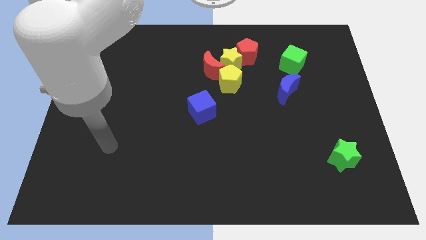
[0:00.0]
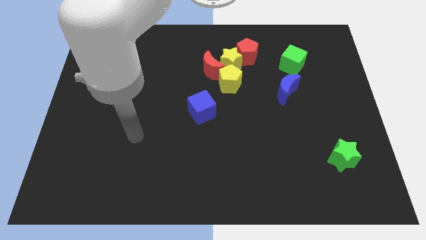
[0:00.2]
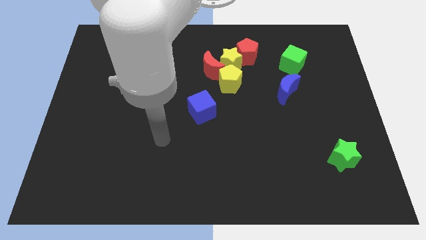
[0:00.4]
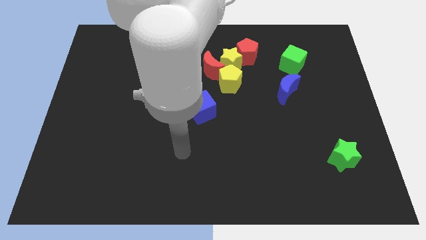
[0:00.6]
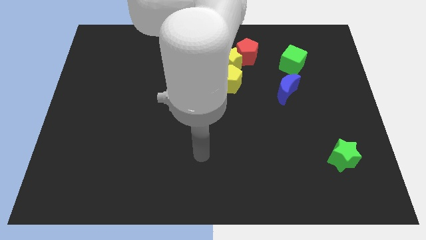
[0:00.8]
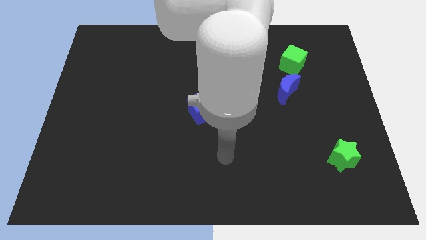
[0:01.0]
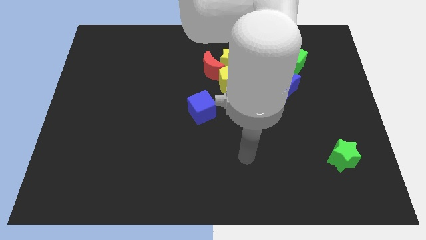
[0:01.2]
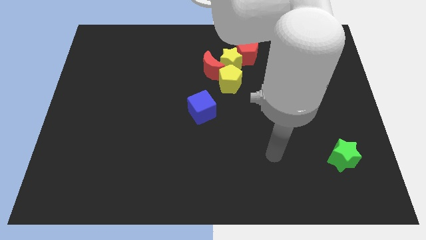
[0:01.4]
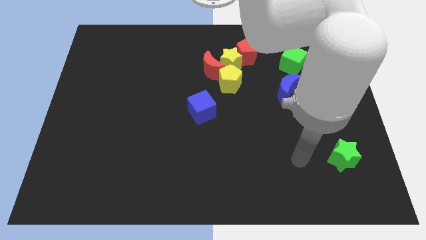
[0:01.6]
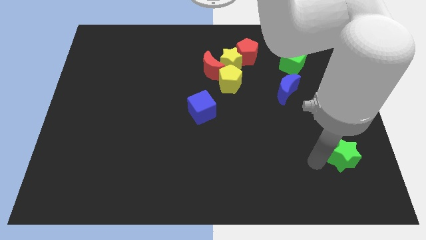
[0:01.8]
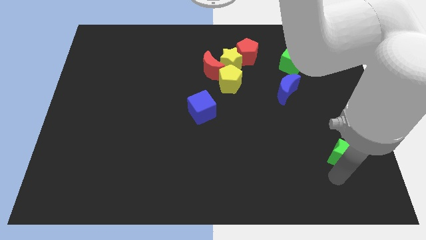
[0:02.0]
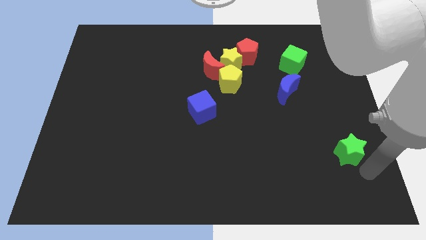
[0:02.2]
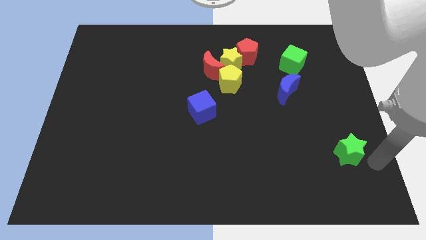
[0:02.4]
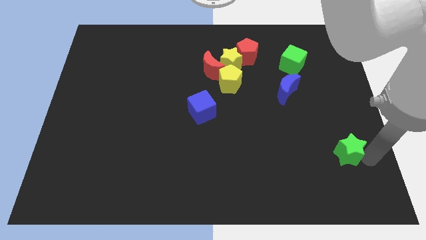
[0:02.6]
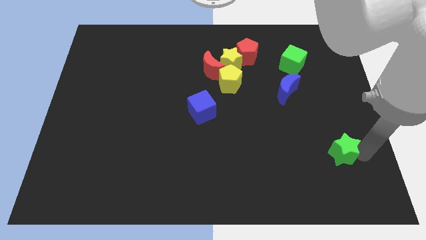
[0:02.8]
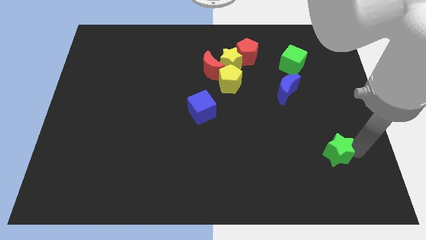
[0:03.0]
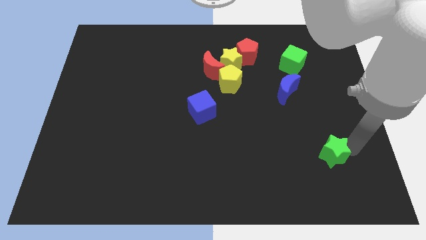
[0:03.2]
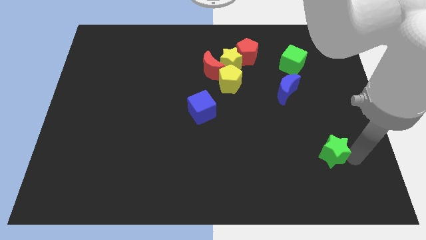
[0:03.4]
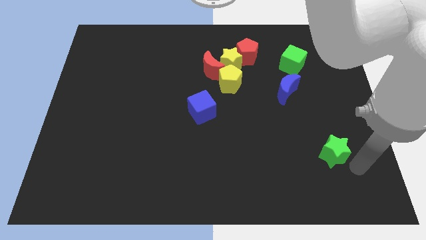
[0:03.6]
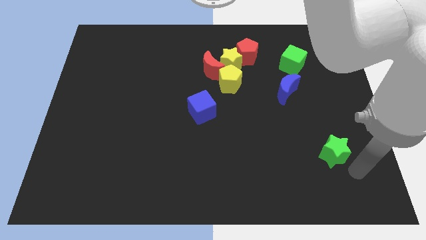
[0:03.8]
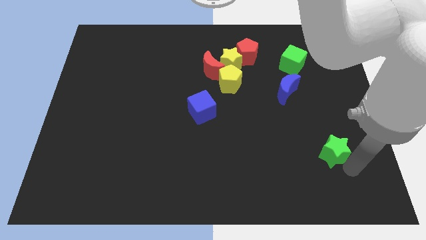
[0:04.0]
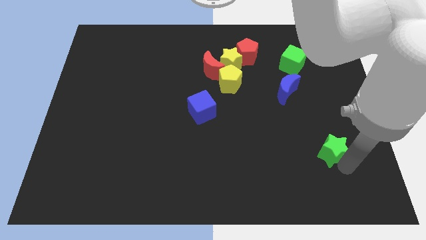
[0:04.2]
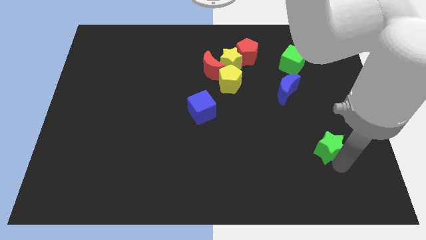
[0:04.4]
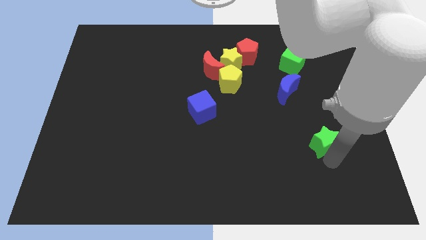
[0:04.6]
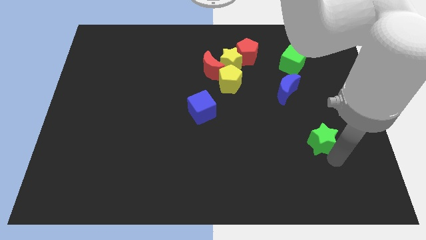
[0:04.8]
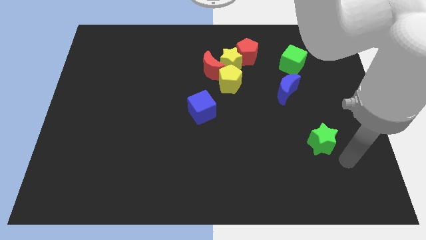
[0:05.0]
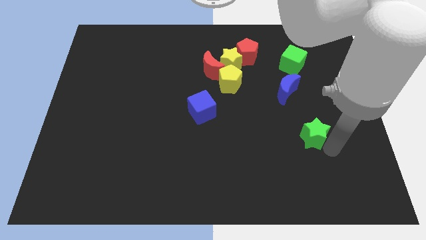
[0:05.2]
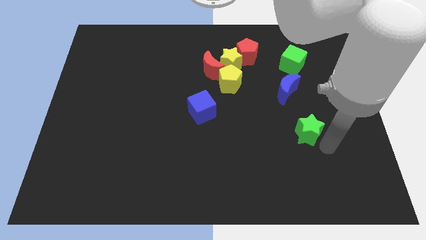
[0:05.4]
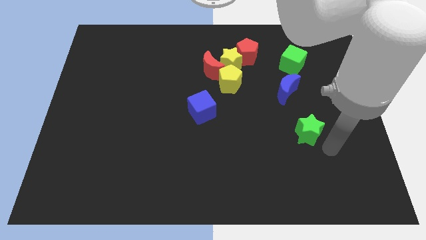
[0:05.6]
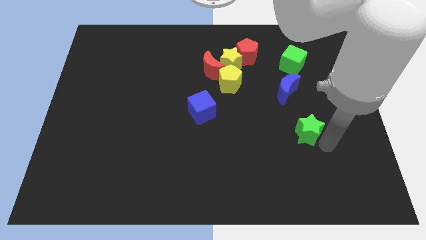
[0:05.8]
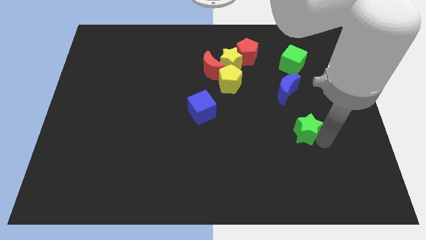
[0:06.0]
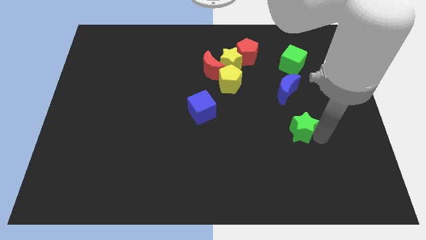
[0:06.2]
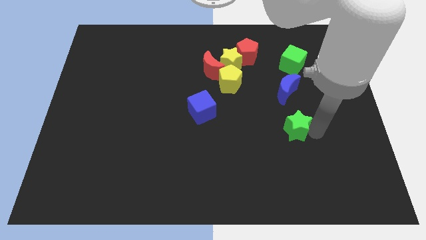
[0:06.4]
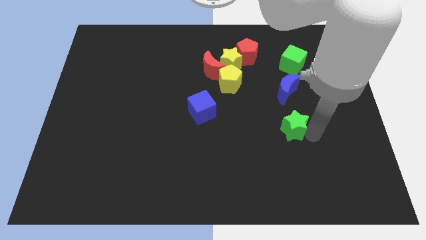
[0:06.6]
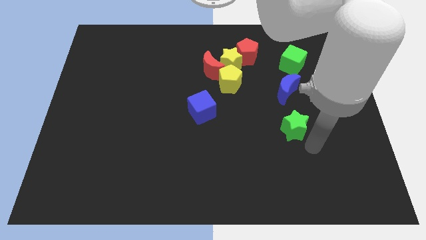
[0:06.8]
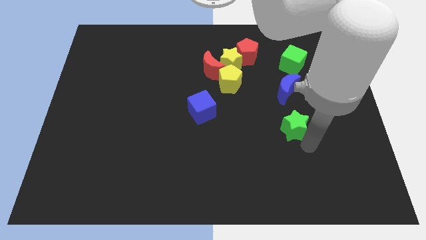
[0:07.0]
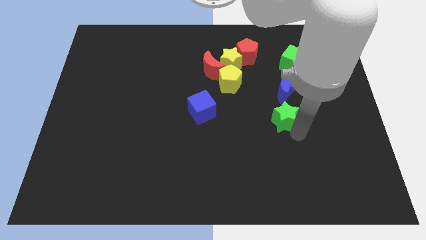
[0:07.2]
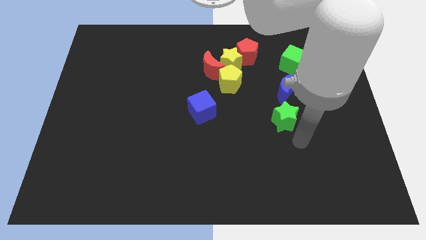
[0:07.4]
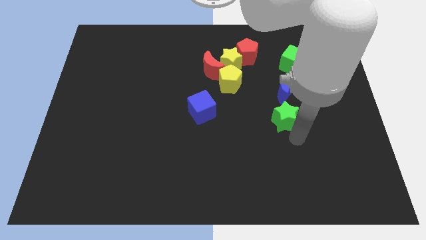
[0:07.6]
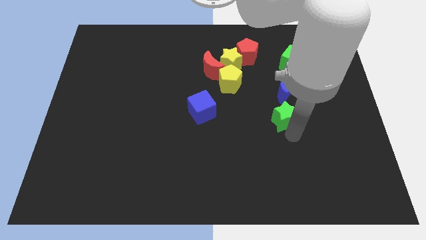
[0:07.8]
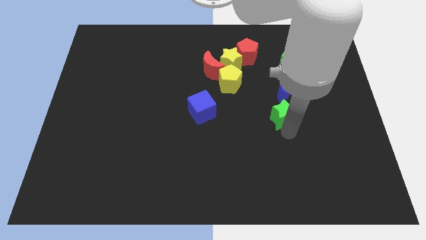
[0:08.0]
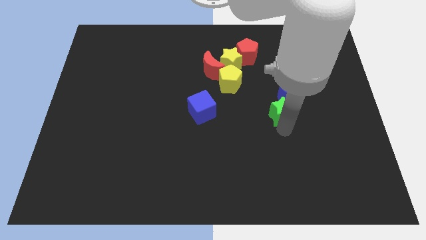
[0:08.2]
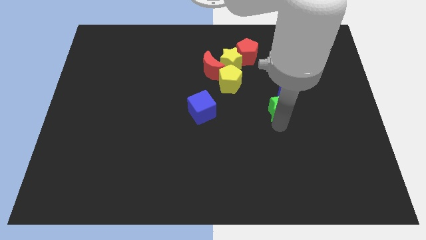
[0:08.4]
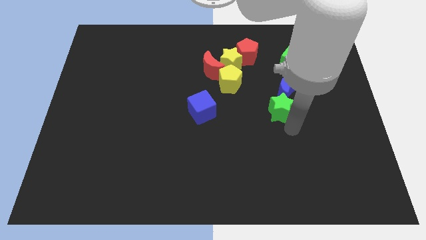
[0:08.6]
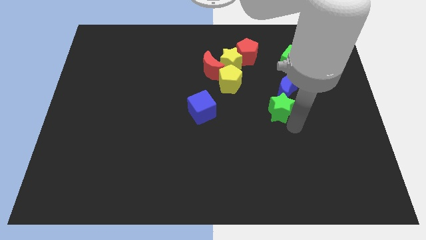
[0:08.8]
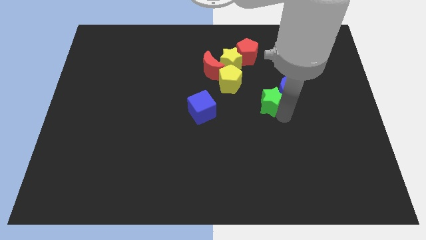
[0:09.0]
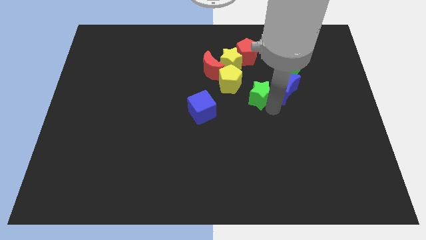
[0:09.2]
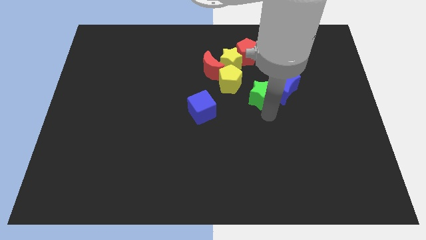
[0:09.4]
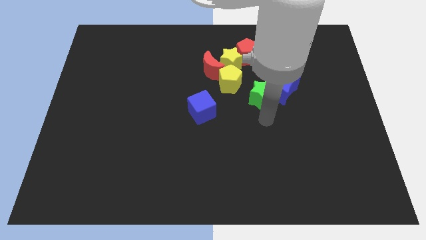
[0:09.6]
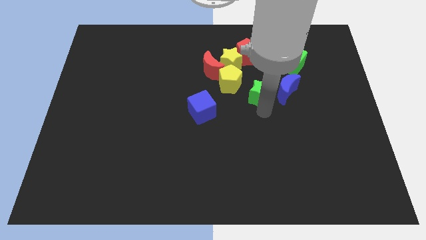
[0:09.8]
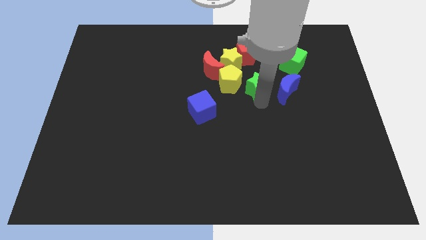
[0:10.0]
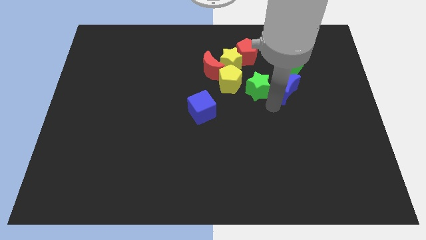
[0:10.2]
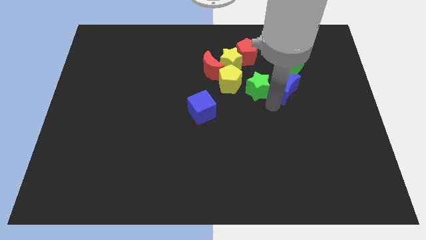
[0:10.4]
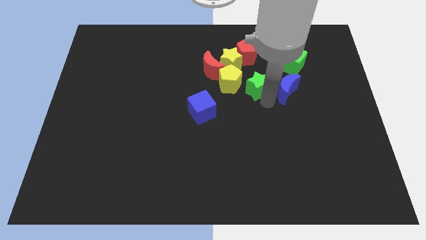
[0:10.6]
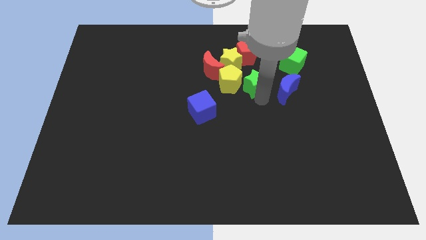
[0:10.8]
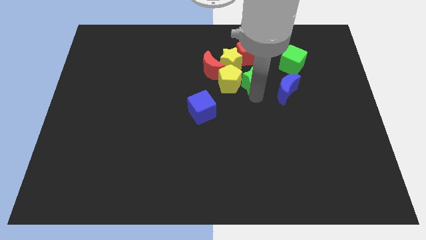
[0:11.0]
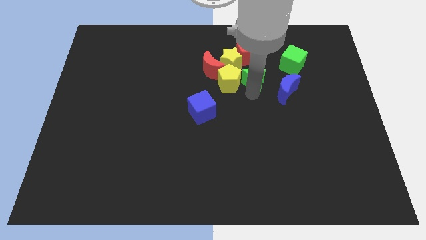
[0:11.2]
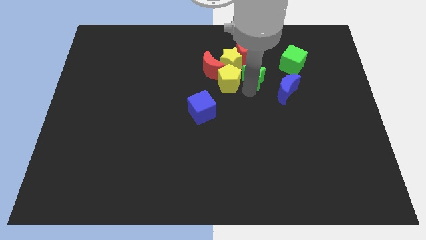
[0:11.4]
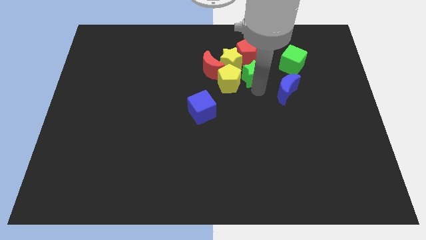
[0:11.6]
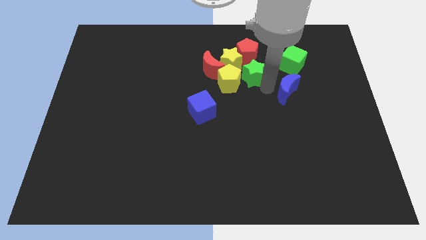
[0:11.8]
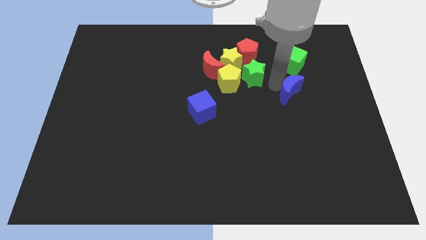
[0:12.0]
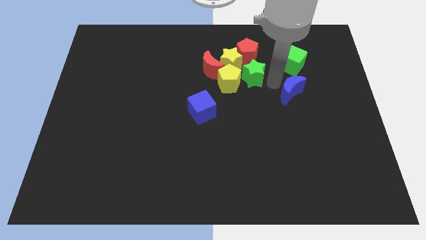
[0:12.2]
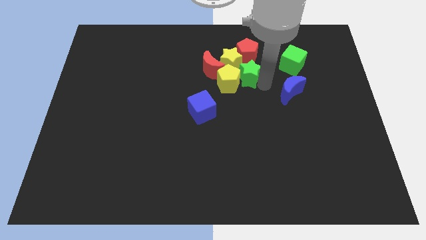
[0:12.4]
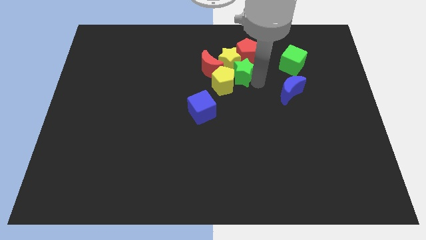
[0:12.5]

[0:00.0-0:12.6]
move the green star close to the yellow star

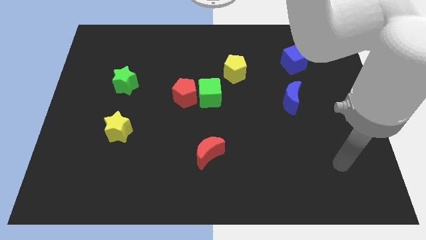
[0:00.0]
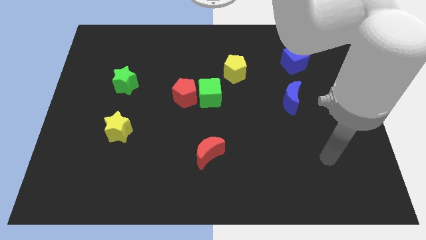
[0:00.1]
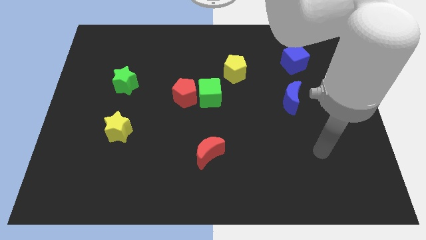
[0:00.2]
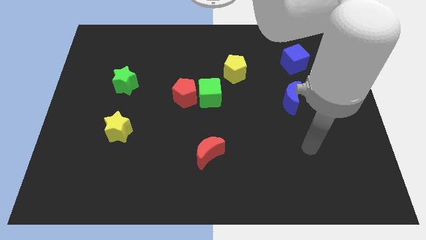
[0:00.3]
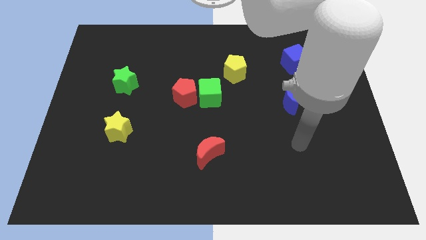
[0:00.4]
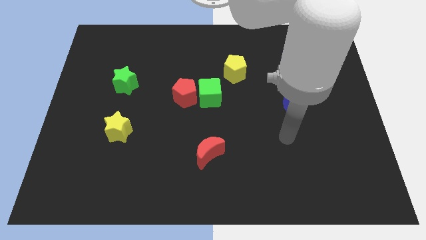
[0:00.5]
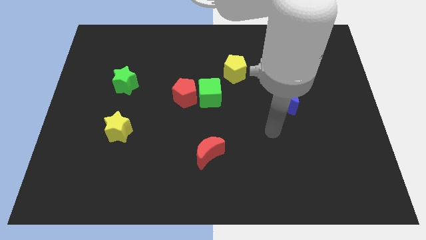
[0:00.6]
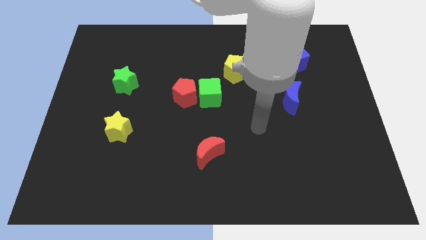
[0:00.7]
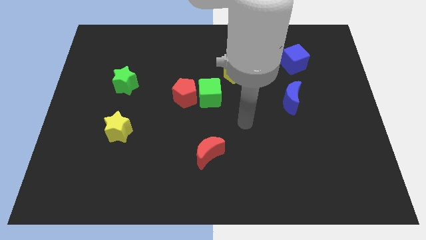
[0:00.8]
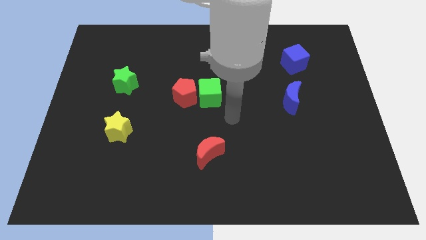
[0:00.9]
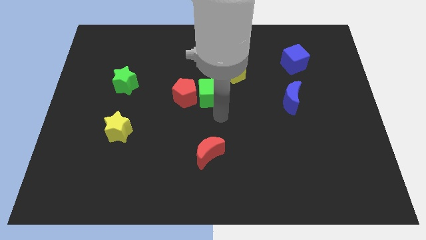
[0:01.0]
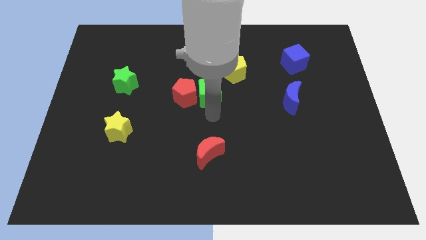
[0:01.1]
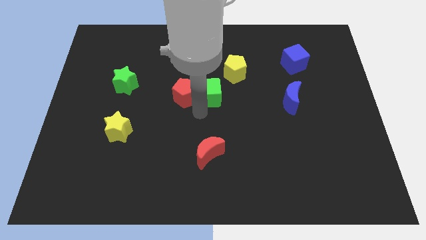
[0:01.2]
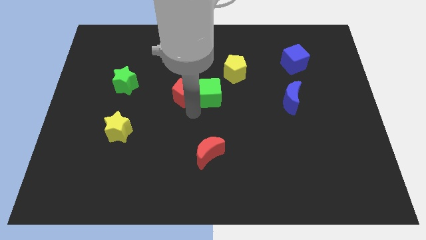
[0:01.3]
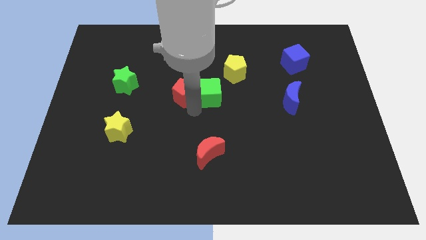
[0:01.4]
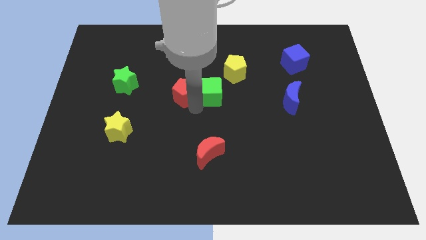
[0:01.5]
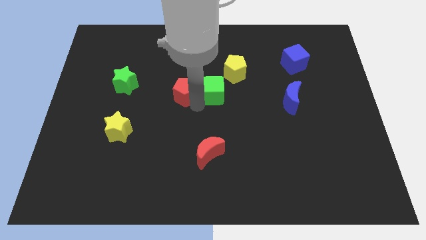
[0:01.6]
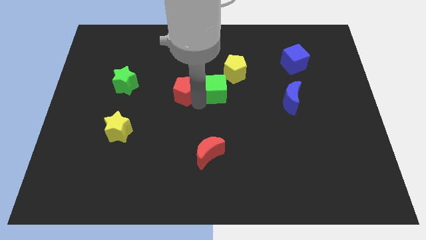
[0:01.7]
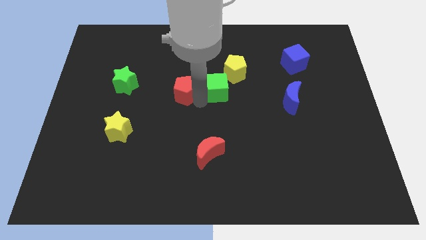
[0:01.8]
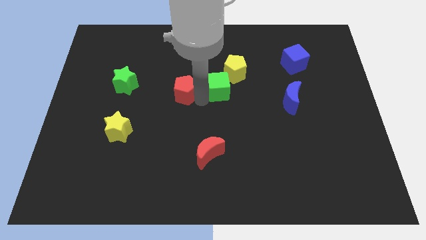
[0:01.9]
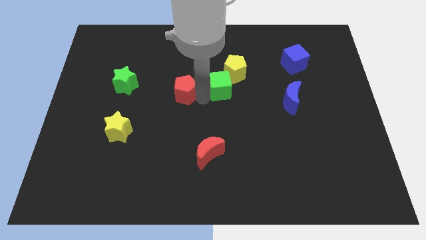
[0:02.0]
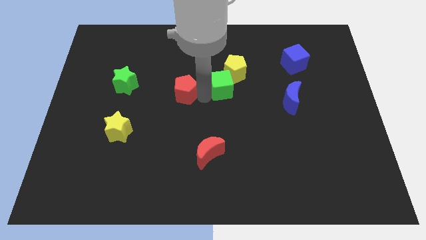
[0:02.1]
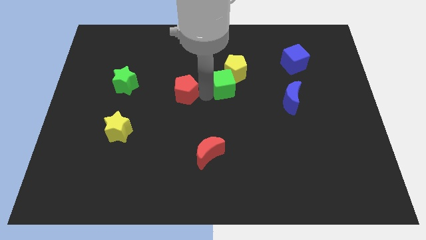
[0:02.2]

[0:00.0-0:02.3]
push the green cube next to the yellow pentagon
